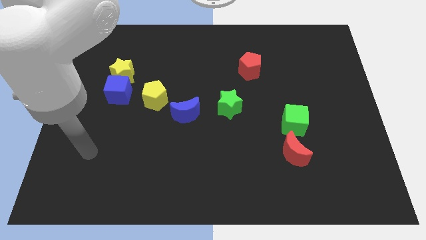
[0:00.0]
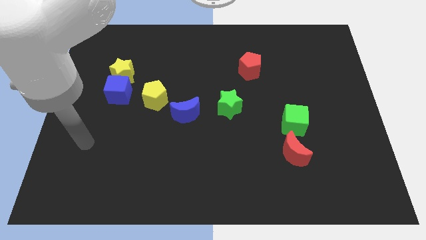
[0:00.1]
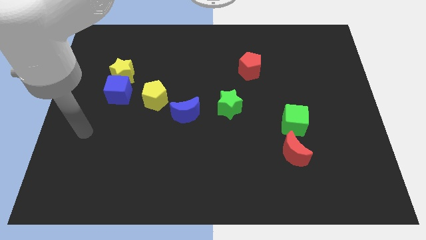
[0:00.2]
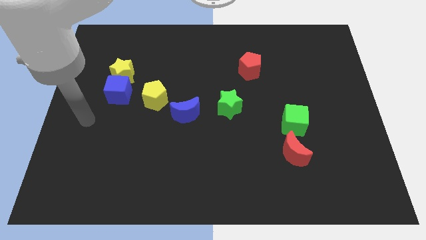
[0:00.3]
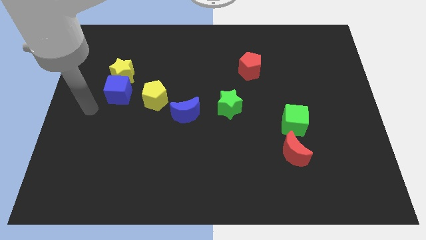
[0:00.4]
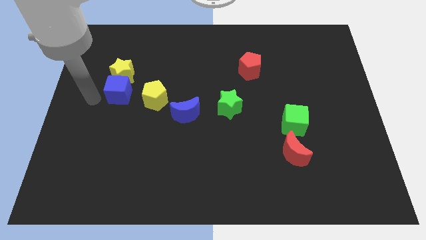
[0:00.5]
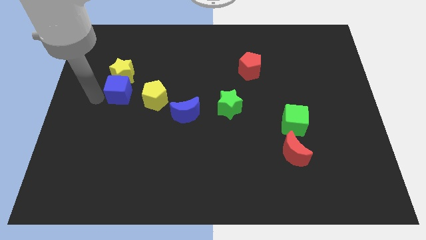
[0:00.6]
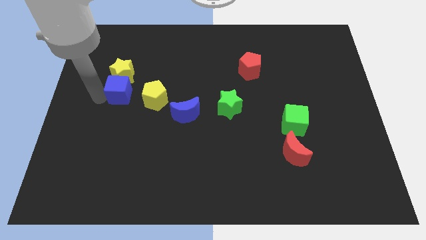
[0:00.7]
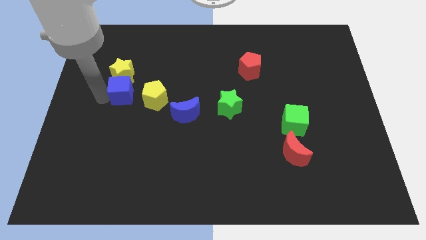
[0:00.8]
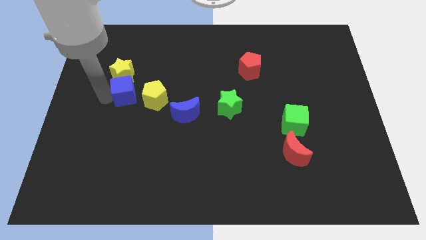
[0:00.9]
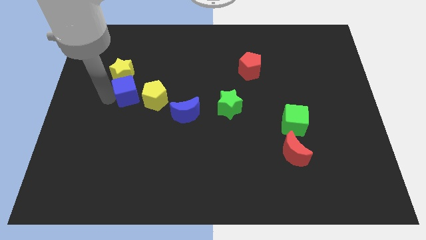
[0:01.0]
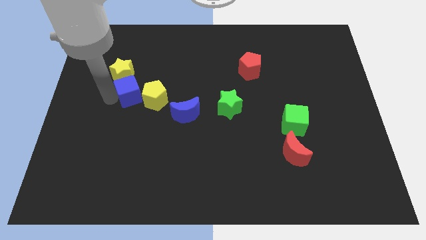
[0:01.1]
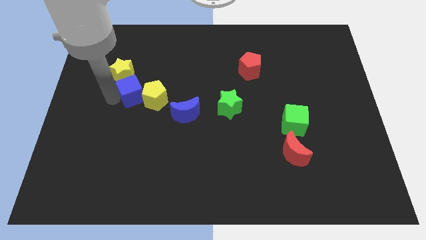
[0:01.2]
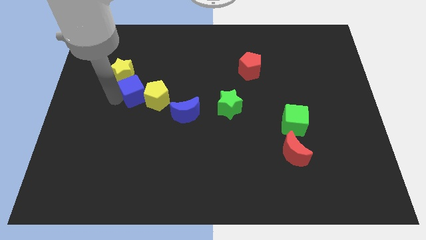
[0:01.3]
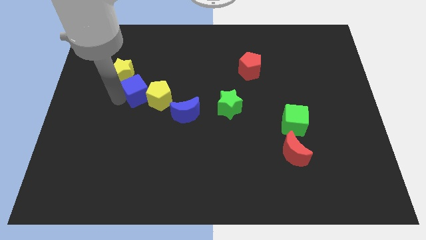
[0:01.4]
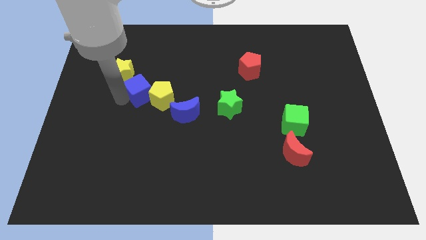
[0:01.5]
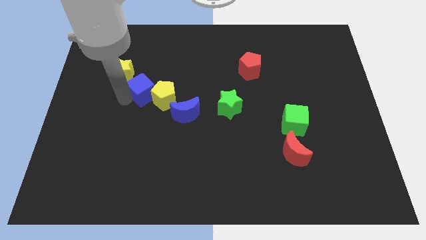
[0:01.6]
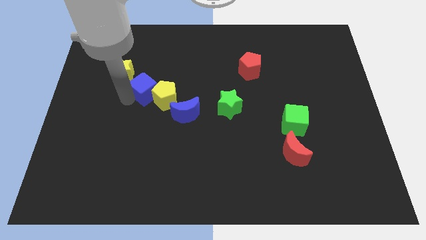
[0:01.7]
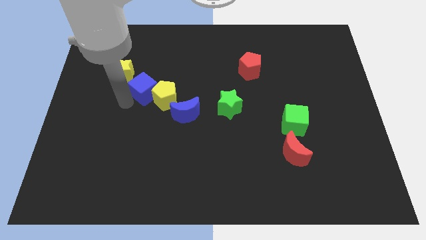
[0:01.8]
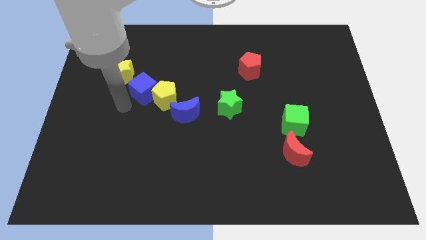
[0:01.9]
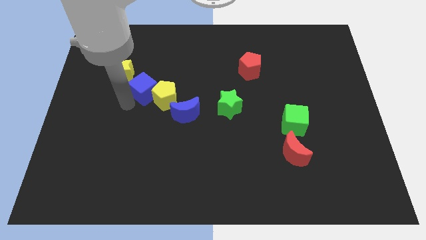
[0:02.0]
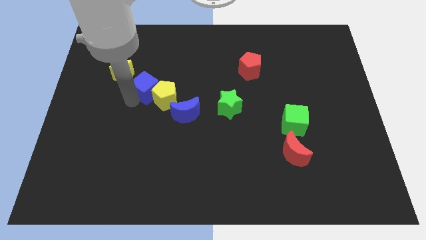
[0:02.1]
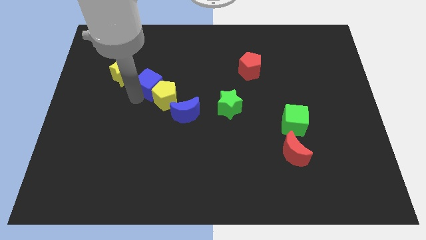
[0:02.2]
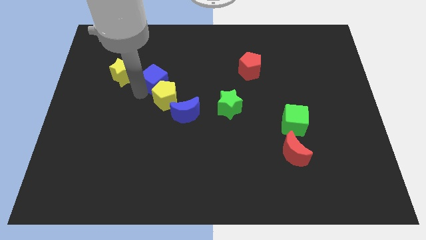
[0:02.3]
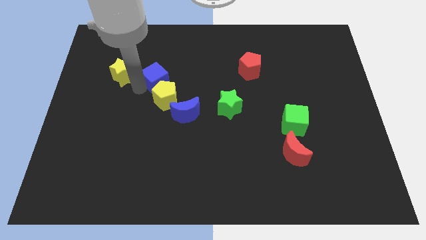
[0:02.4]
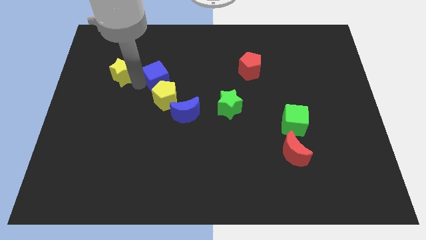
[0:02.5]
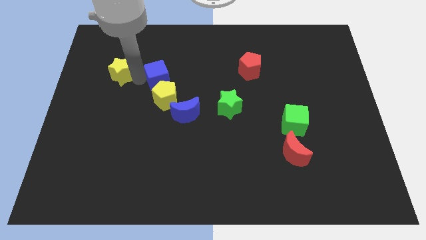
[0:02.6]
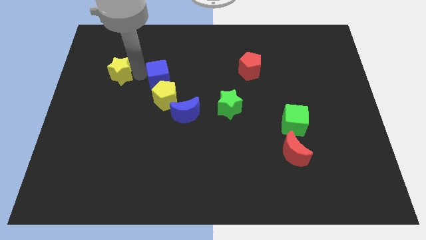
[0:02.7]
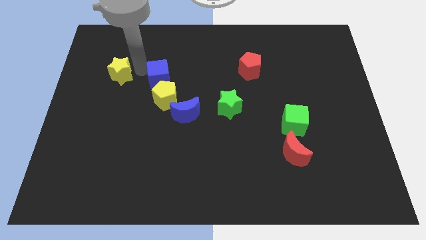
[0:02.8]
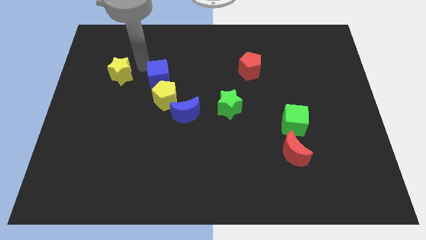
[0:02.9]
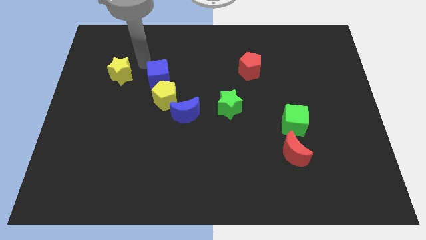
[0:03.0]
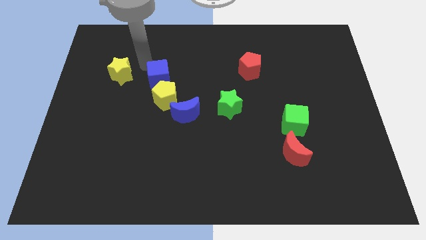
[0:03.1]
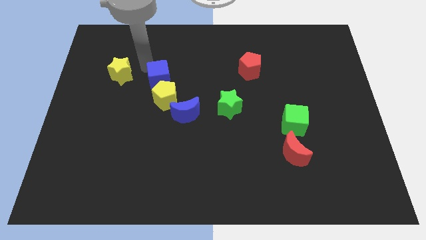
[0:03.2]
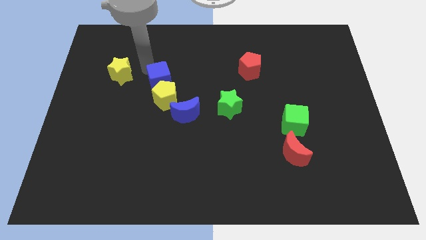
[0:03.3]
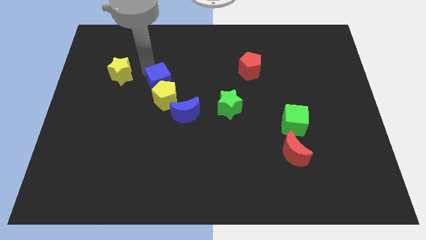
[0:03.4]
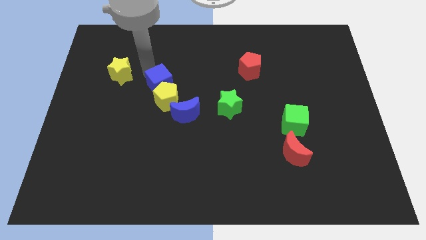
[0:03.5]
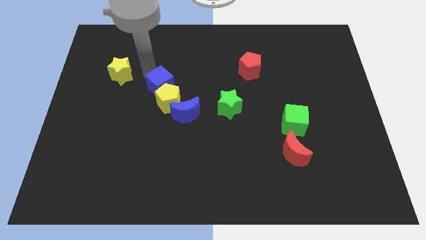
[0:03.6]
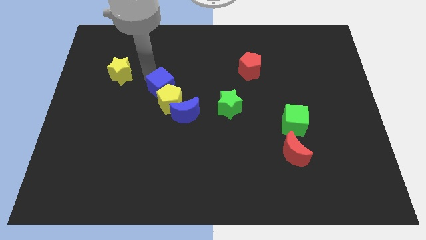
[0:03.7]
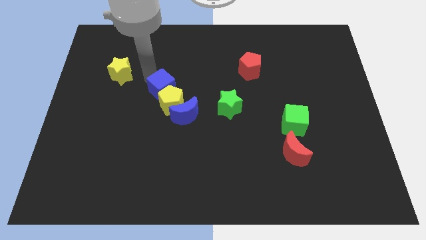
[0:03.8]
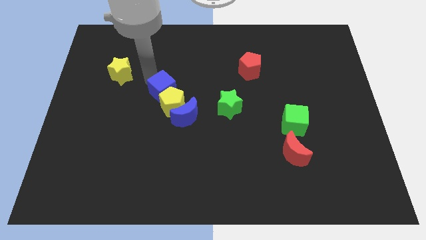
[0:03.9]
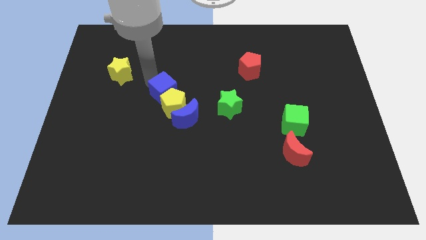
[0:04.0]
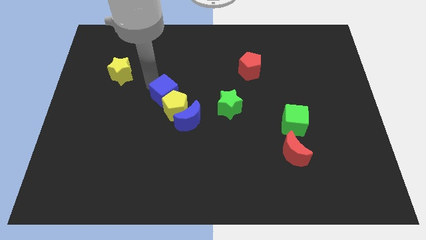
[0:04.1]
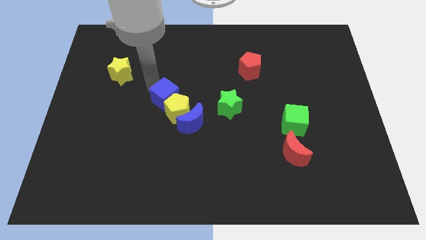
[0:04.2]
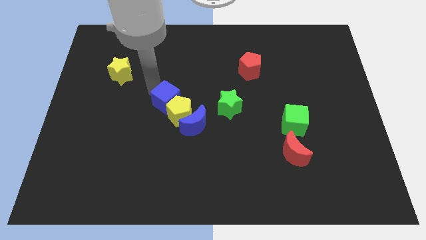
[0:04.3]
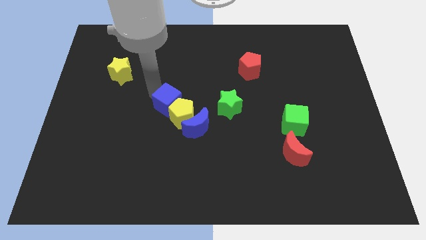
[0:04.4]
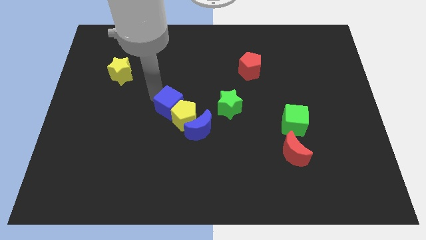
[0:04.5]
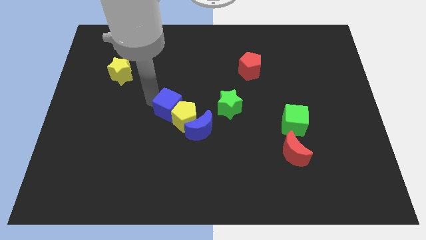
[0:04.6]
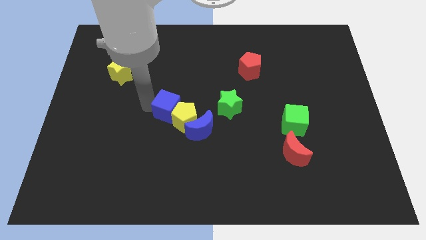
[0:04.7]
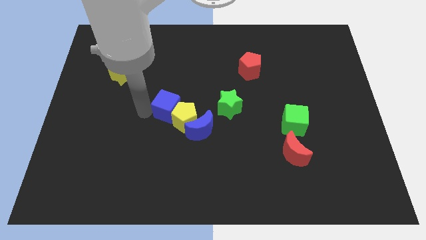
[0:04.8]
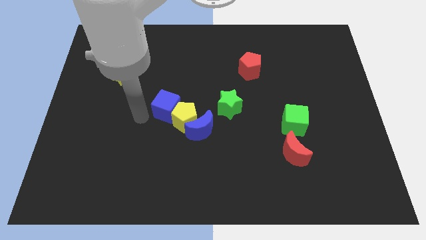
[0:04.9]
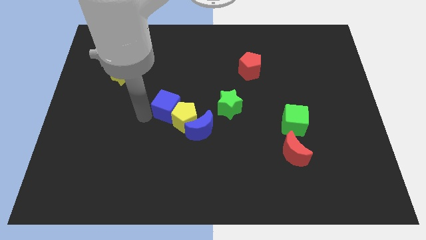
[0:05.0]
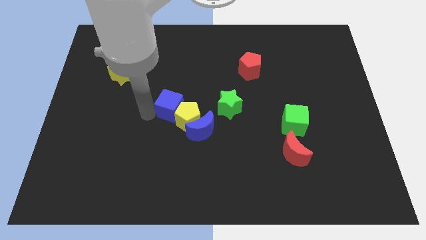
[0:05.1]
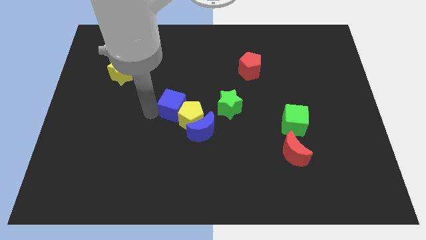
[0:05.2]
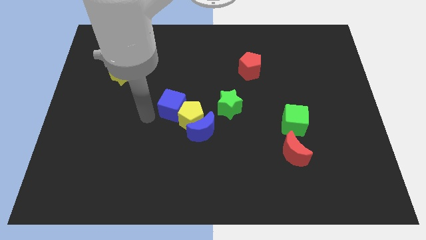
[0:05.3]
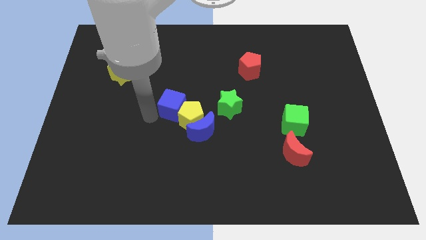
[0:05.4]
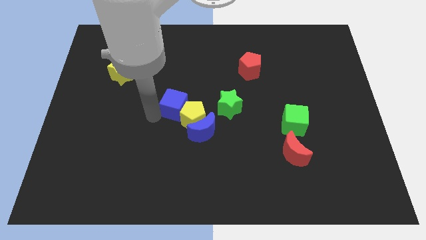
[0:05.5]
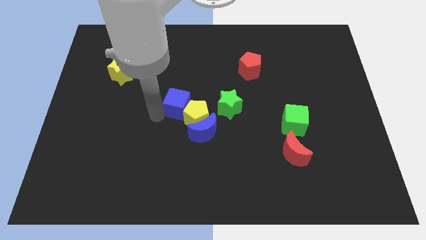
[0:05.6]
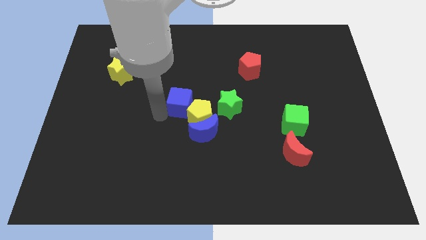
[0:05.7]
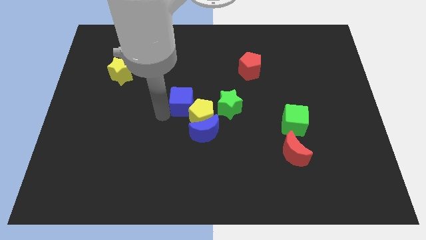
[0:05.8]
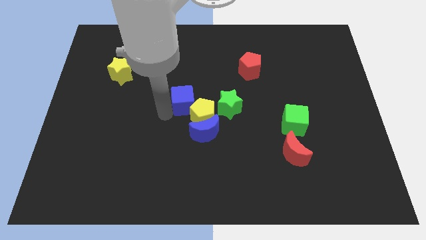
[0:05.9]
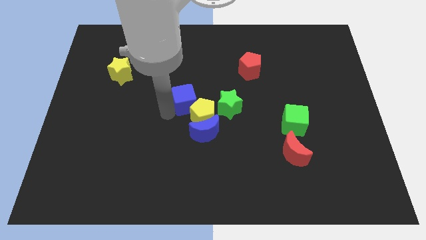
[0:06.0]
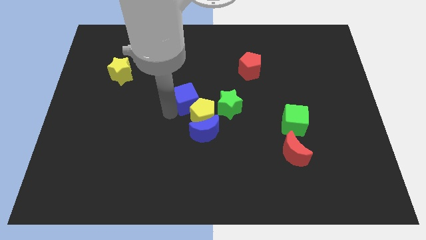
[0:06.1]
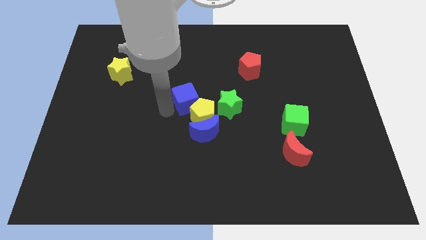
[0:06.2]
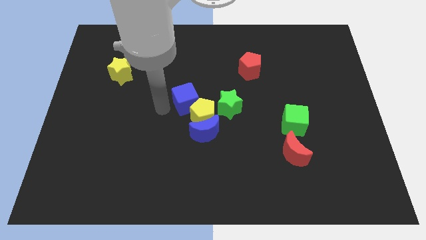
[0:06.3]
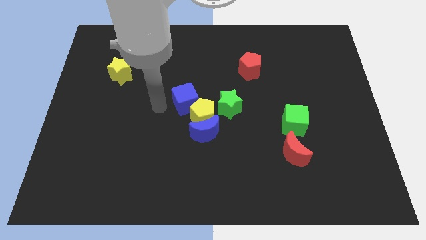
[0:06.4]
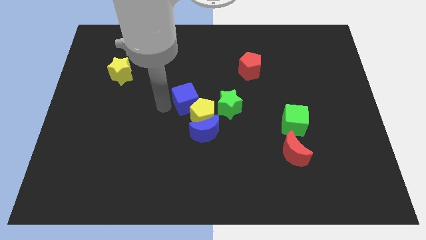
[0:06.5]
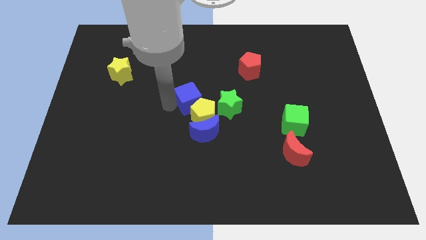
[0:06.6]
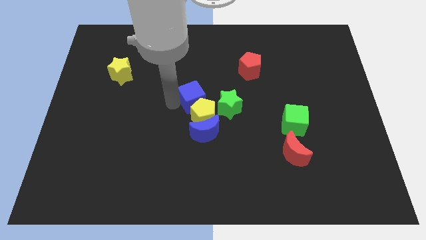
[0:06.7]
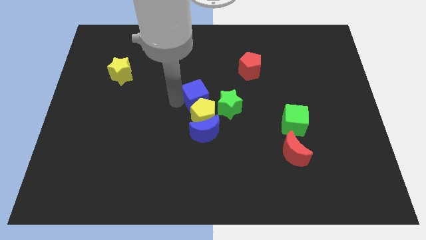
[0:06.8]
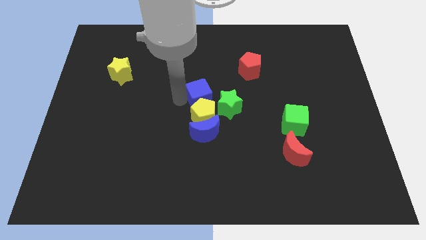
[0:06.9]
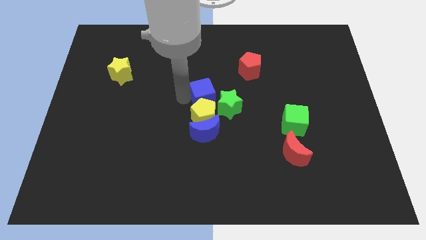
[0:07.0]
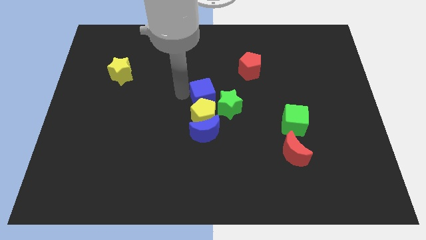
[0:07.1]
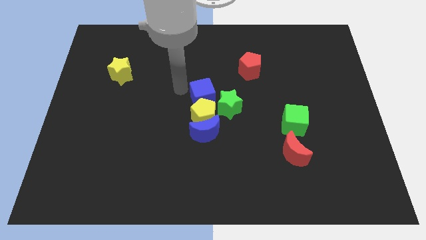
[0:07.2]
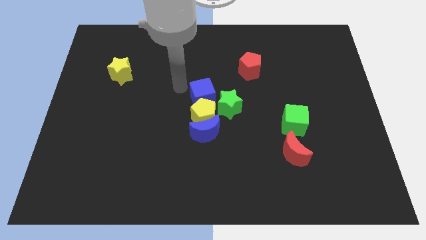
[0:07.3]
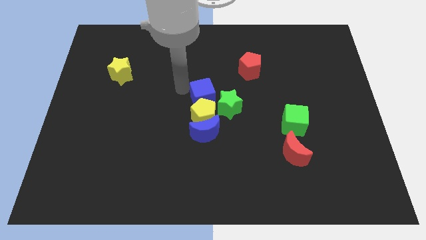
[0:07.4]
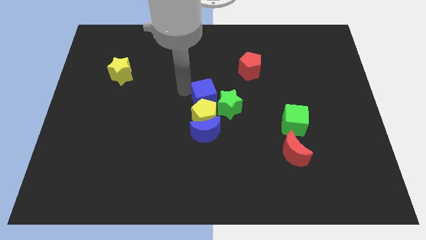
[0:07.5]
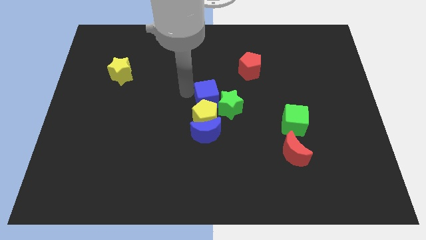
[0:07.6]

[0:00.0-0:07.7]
put the blue cube next to the green star
